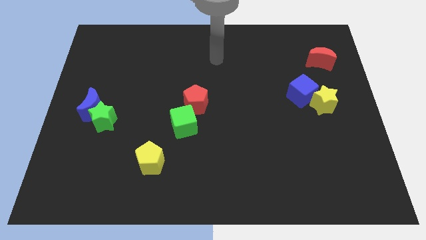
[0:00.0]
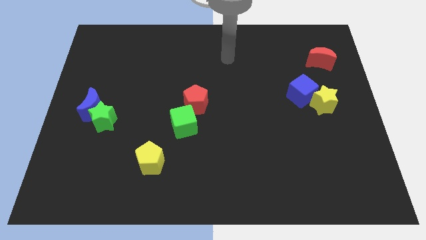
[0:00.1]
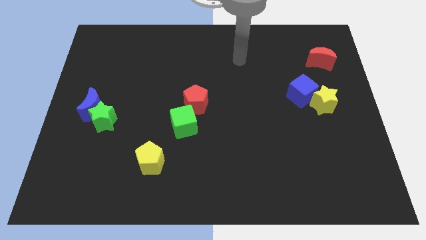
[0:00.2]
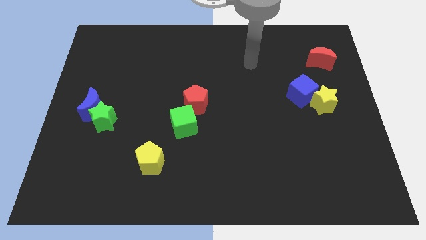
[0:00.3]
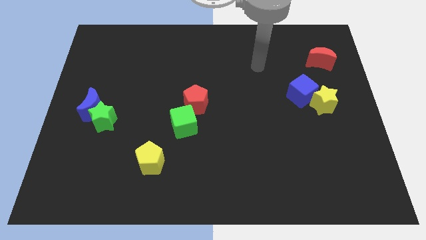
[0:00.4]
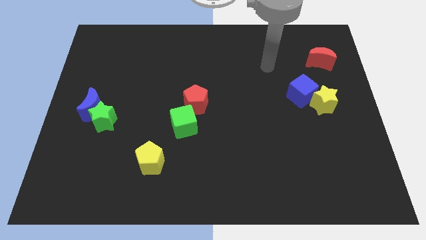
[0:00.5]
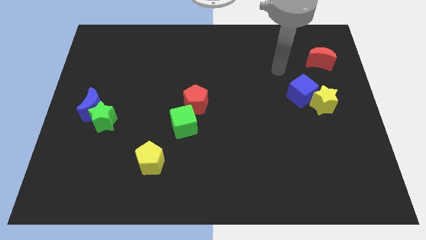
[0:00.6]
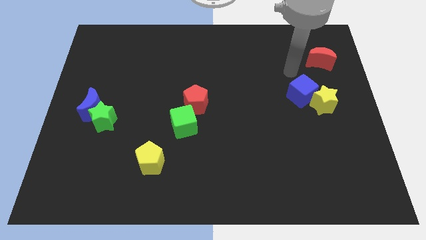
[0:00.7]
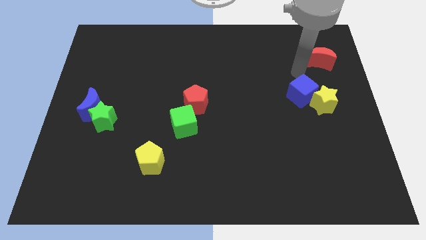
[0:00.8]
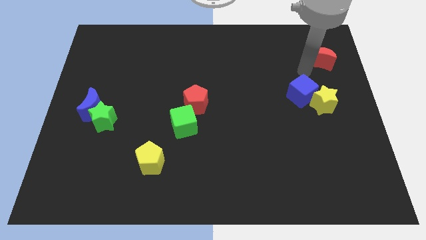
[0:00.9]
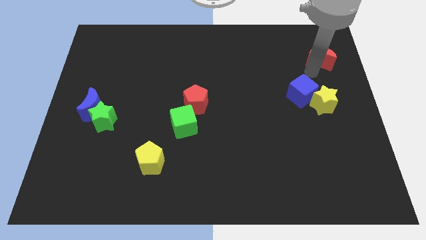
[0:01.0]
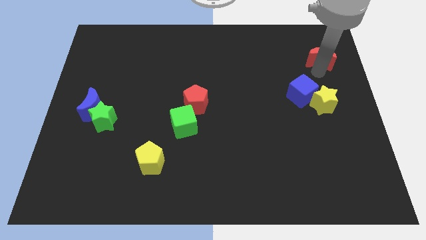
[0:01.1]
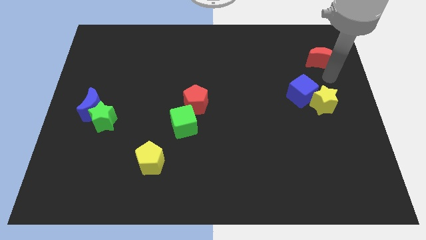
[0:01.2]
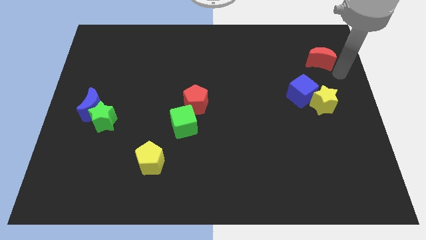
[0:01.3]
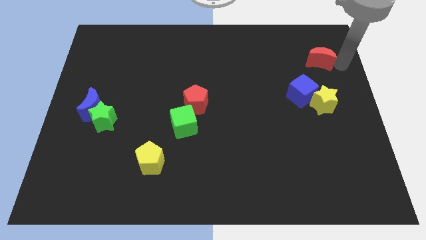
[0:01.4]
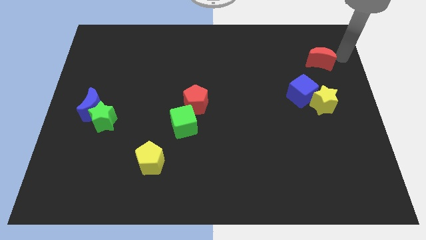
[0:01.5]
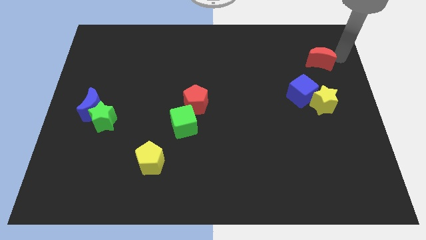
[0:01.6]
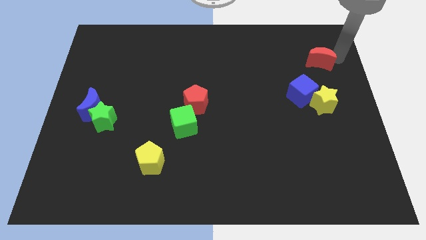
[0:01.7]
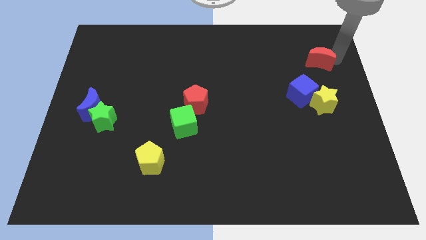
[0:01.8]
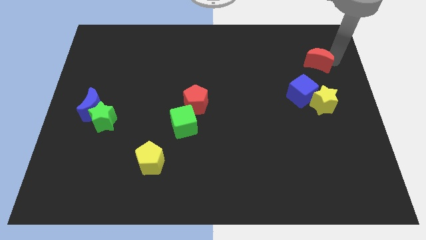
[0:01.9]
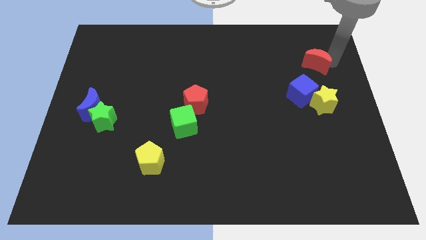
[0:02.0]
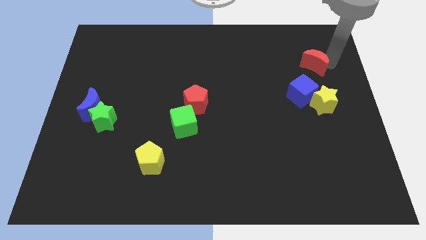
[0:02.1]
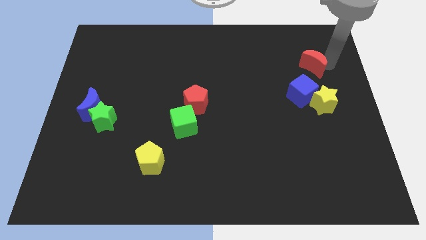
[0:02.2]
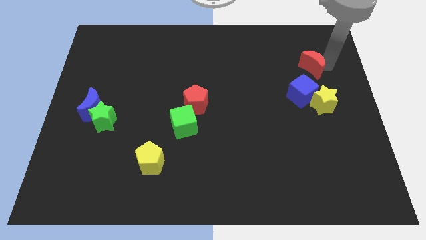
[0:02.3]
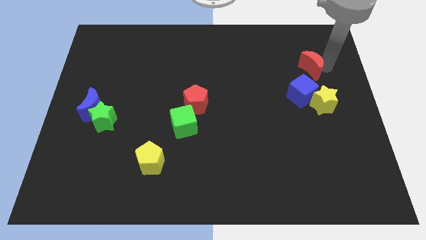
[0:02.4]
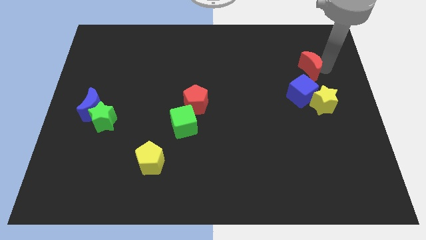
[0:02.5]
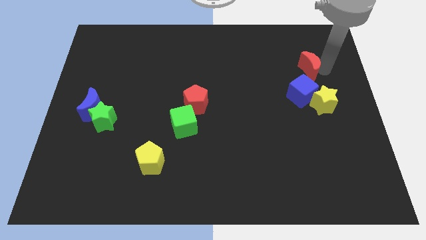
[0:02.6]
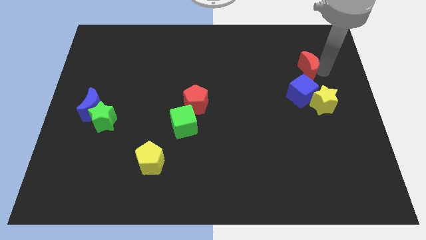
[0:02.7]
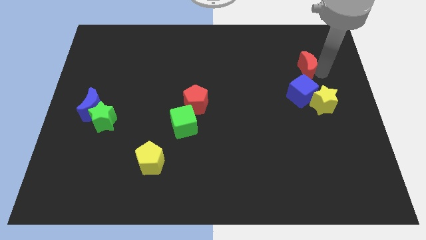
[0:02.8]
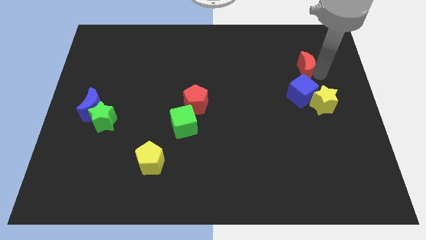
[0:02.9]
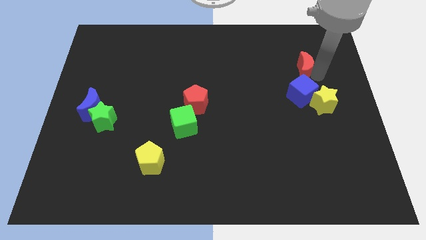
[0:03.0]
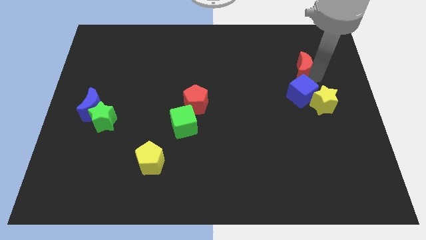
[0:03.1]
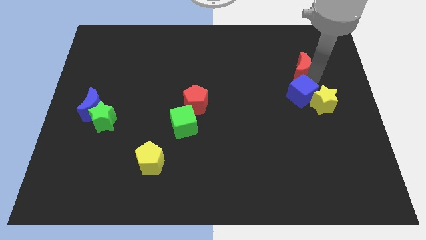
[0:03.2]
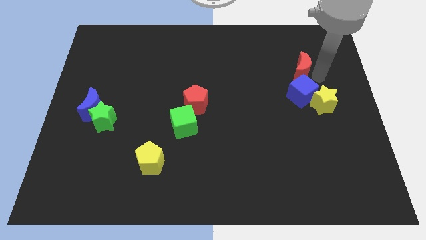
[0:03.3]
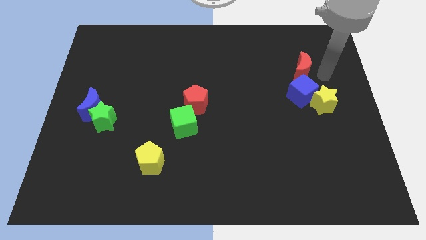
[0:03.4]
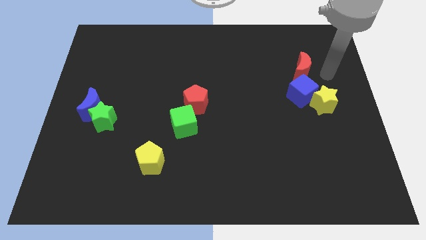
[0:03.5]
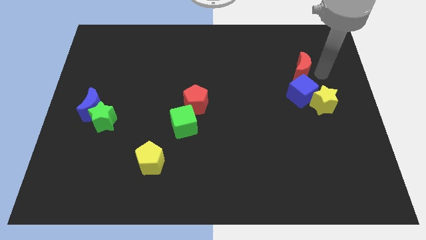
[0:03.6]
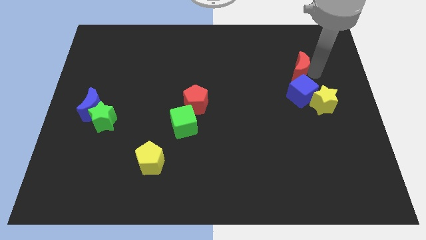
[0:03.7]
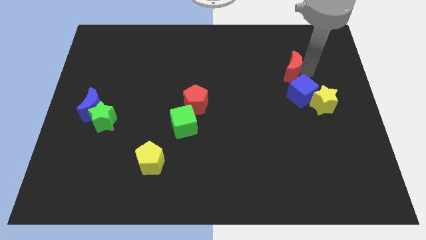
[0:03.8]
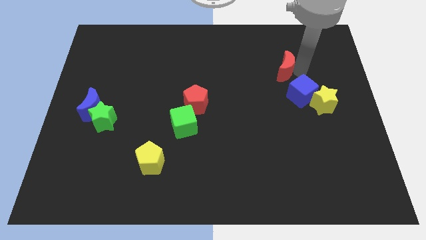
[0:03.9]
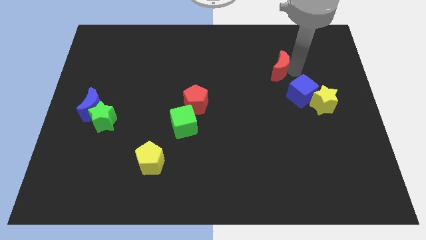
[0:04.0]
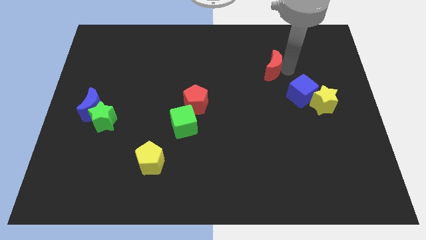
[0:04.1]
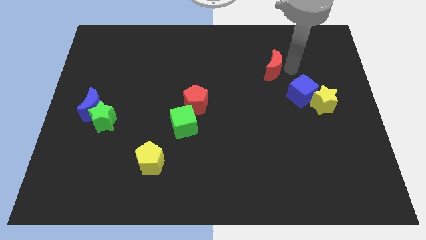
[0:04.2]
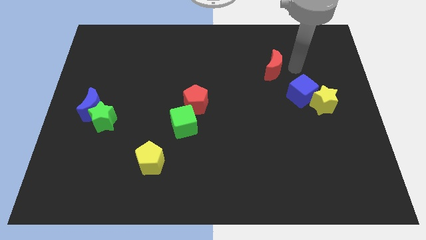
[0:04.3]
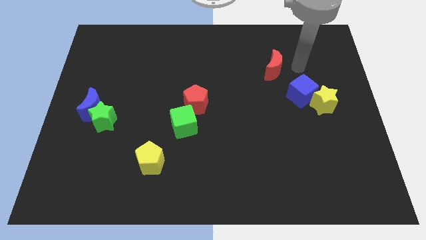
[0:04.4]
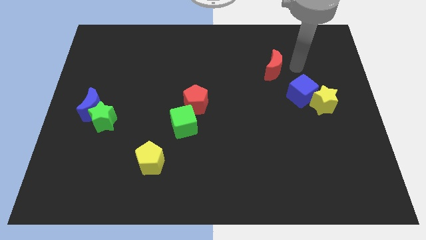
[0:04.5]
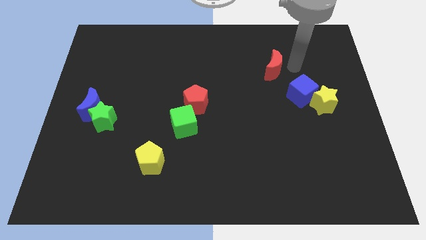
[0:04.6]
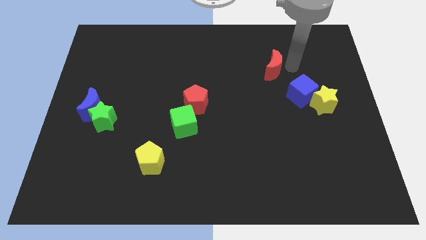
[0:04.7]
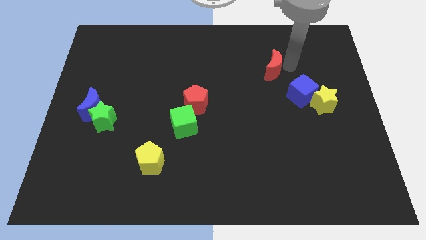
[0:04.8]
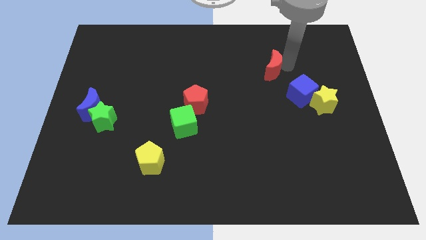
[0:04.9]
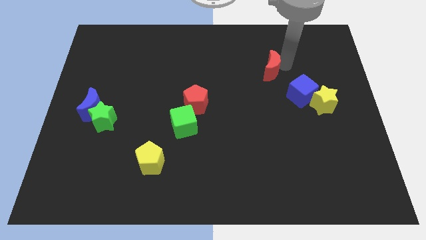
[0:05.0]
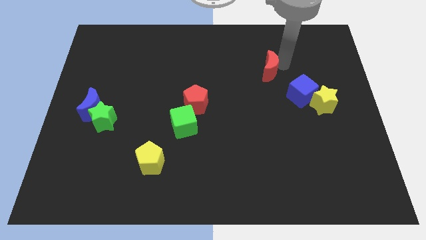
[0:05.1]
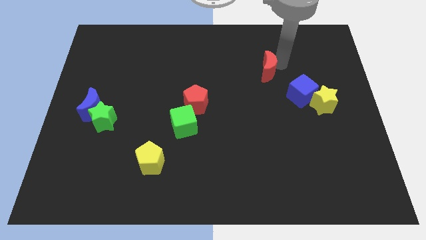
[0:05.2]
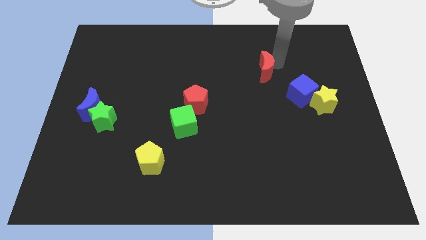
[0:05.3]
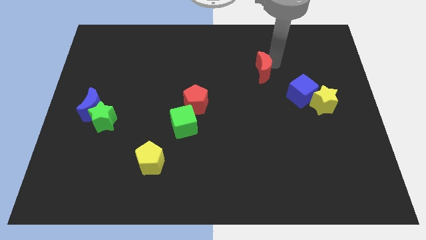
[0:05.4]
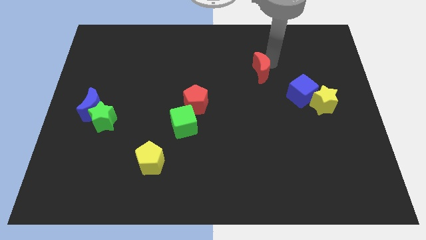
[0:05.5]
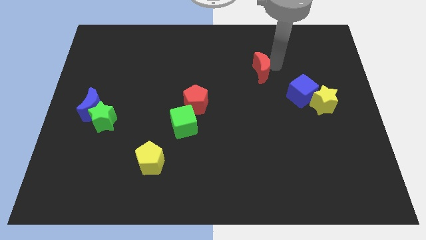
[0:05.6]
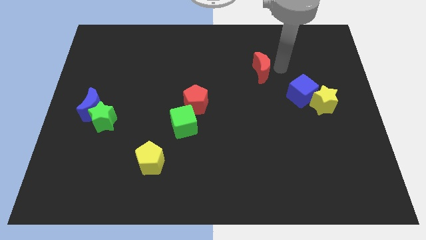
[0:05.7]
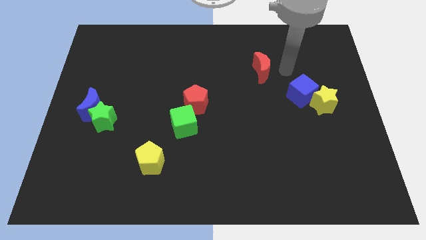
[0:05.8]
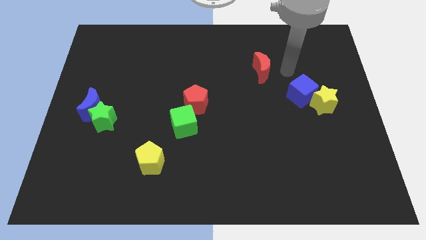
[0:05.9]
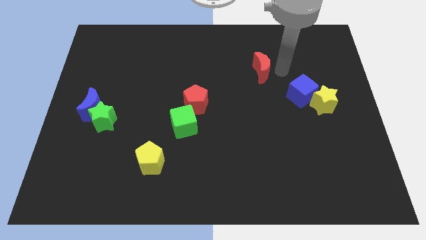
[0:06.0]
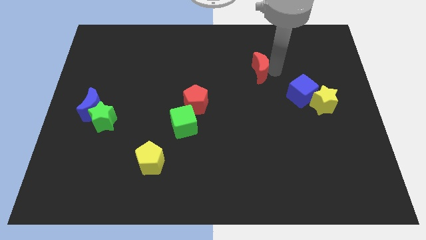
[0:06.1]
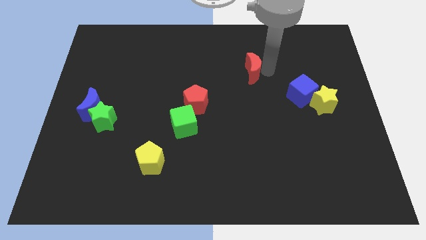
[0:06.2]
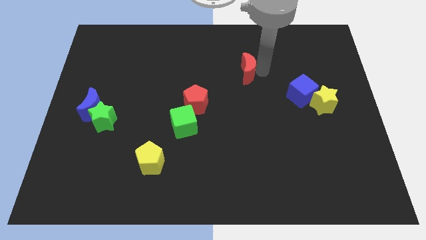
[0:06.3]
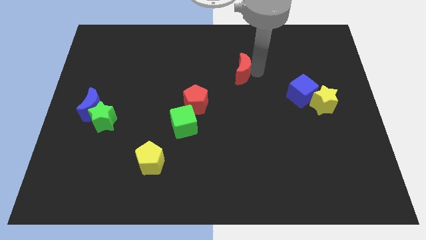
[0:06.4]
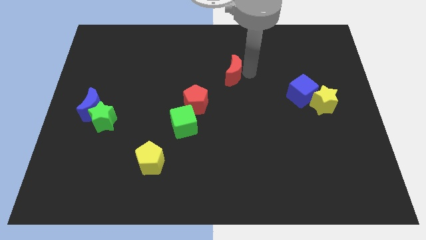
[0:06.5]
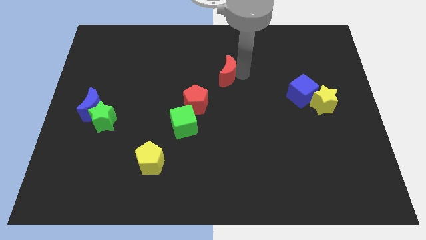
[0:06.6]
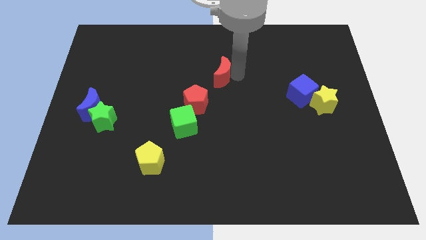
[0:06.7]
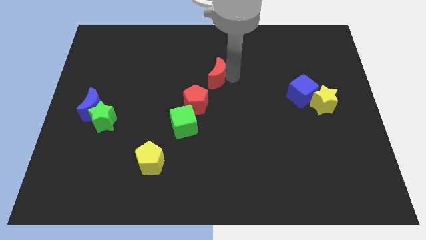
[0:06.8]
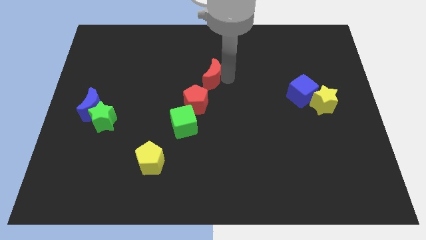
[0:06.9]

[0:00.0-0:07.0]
slide the red moon to the top of the red pentagon

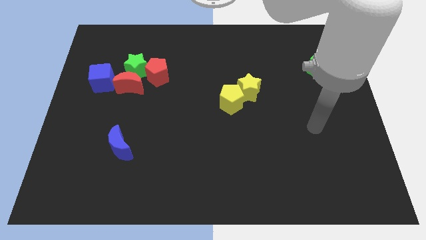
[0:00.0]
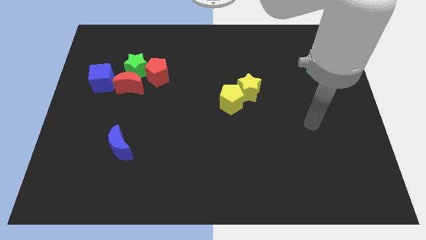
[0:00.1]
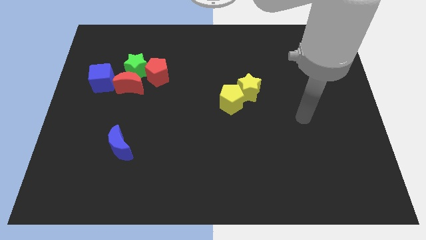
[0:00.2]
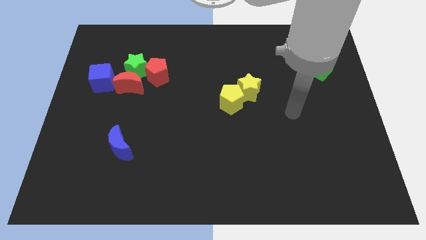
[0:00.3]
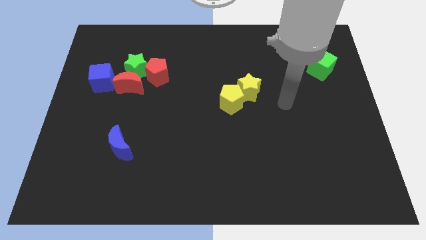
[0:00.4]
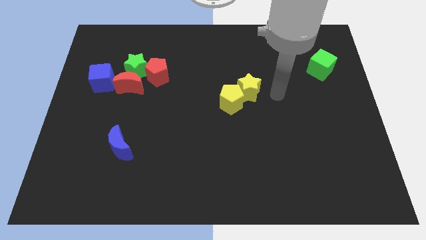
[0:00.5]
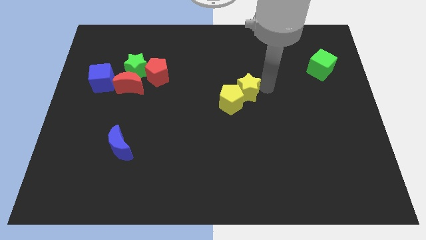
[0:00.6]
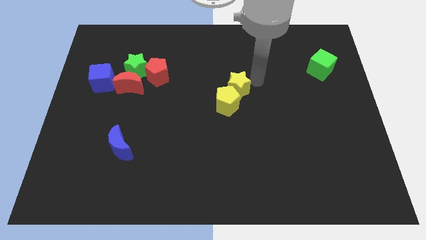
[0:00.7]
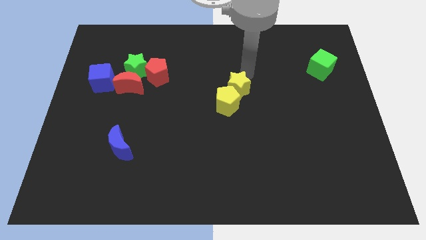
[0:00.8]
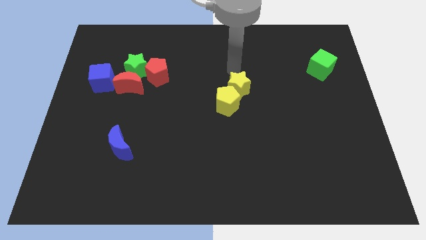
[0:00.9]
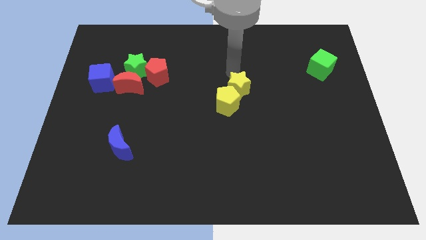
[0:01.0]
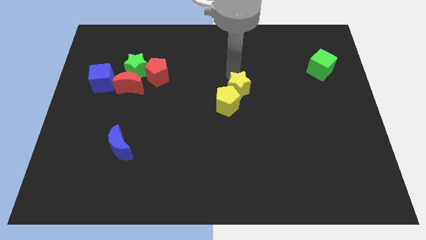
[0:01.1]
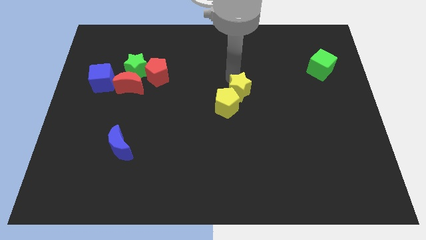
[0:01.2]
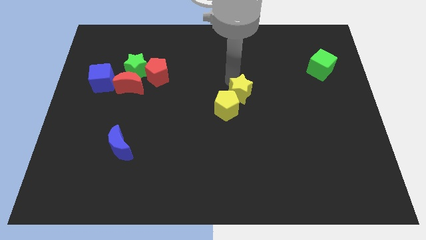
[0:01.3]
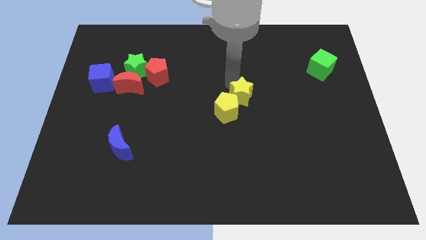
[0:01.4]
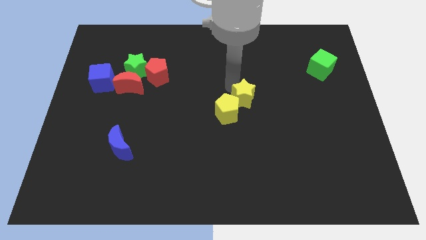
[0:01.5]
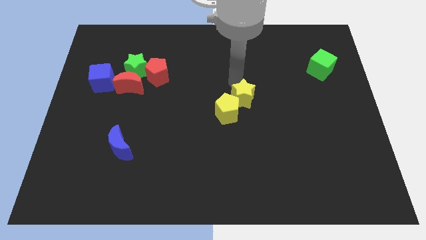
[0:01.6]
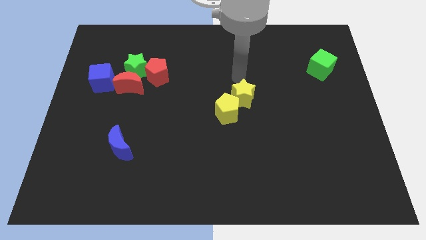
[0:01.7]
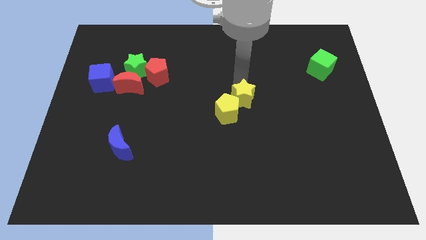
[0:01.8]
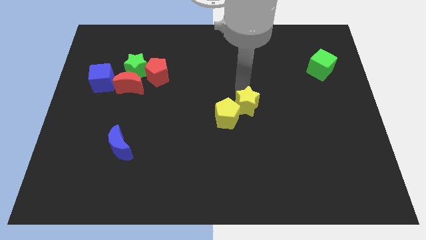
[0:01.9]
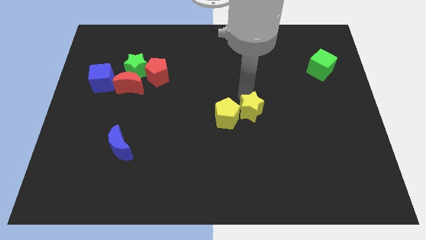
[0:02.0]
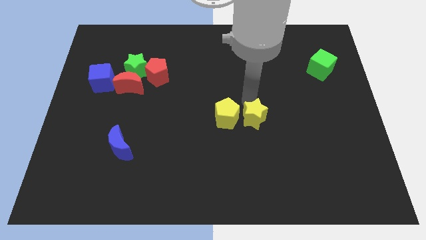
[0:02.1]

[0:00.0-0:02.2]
move the yellow star to the bottom right of the yellow pentagon
